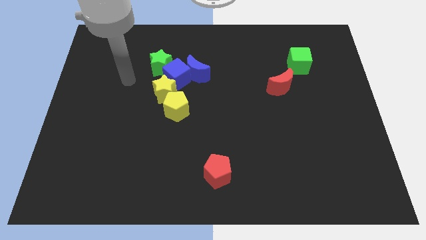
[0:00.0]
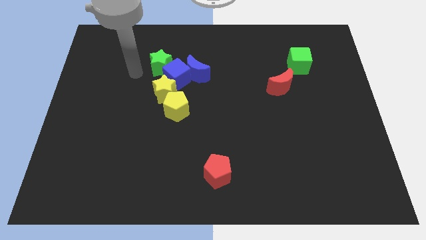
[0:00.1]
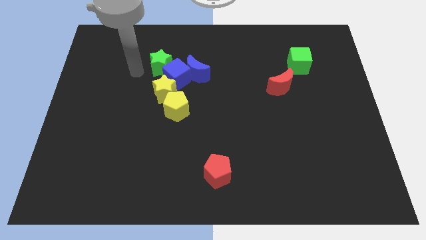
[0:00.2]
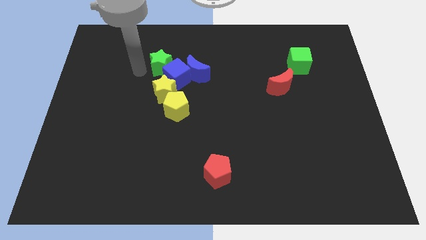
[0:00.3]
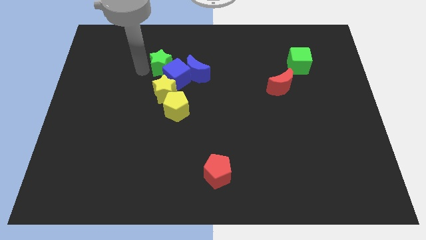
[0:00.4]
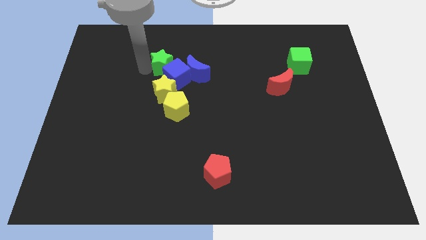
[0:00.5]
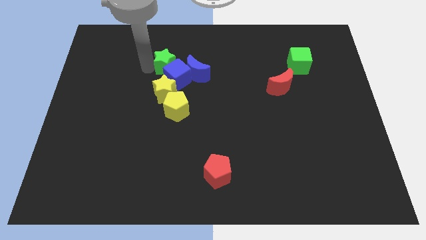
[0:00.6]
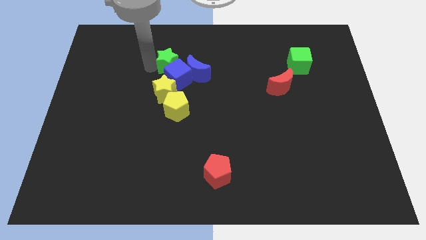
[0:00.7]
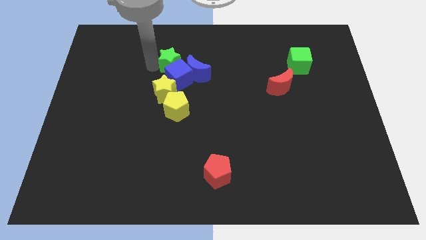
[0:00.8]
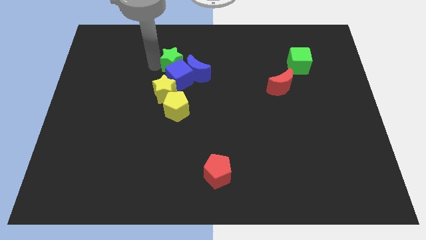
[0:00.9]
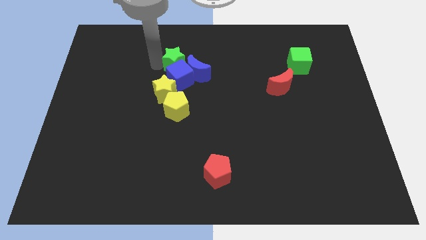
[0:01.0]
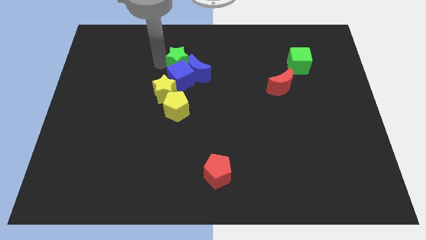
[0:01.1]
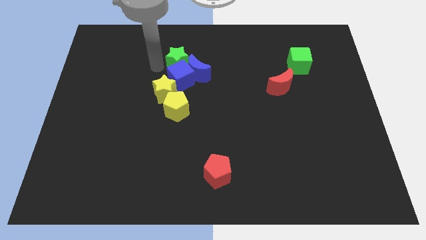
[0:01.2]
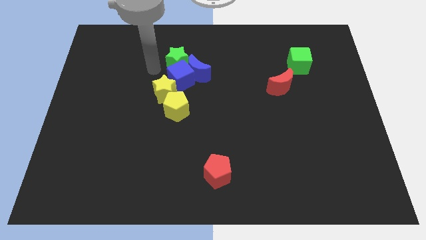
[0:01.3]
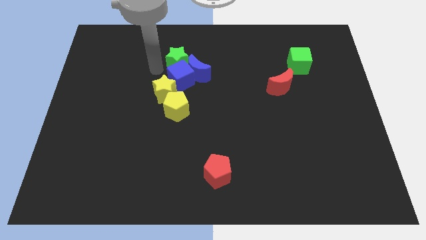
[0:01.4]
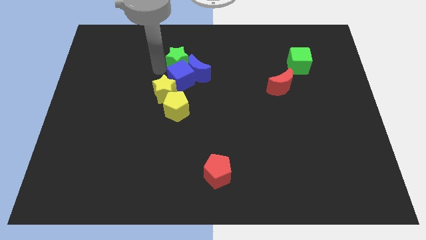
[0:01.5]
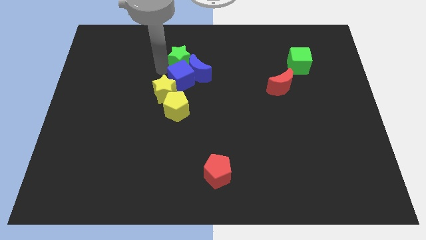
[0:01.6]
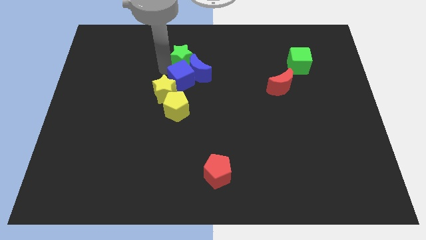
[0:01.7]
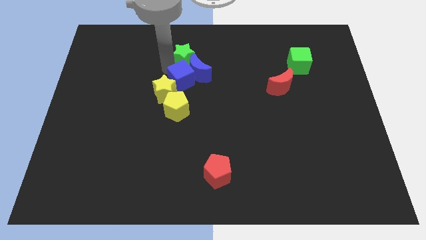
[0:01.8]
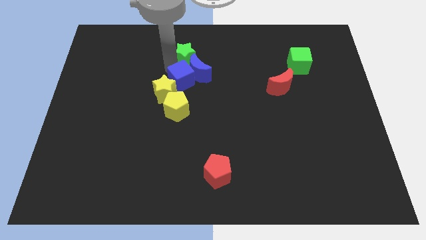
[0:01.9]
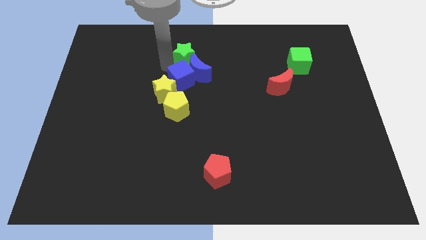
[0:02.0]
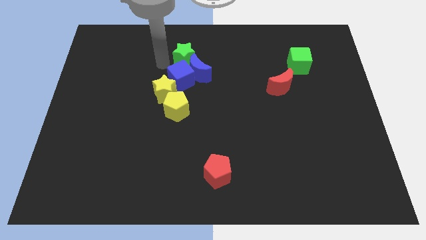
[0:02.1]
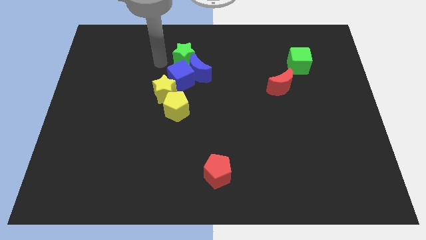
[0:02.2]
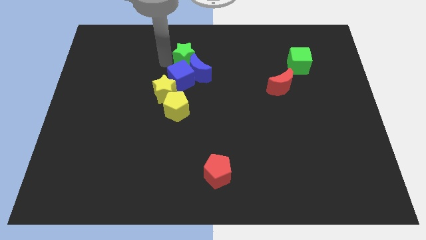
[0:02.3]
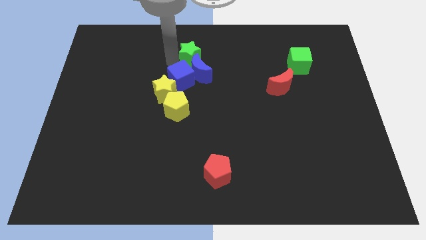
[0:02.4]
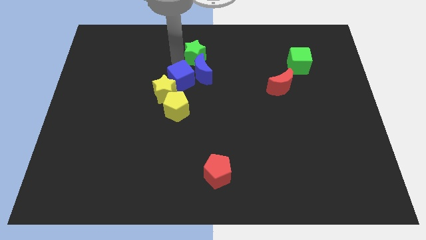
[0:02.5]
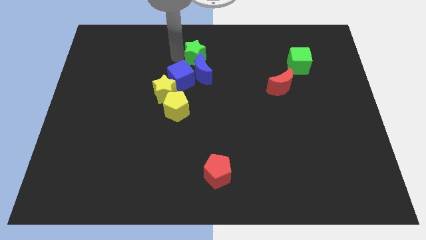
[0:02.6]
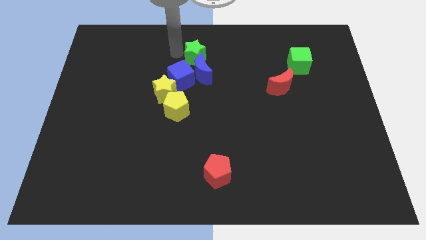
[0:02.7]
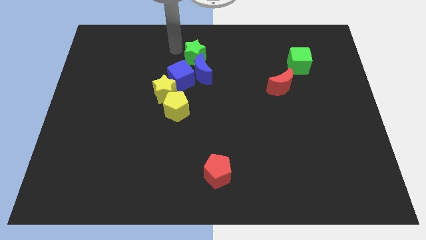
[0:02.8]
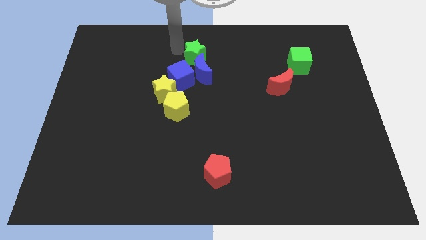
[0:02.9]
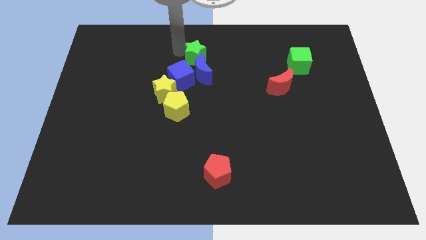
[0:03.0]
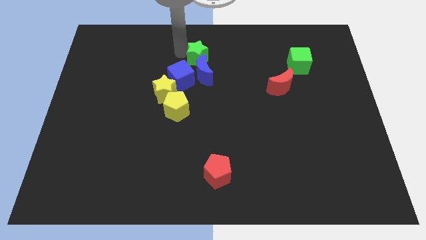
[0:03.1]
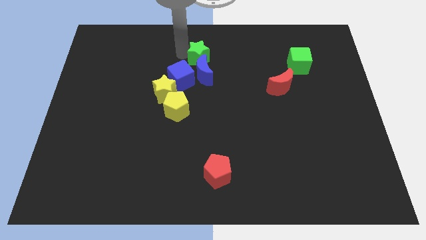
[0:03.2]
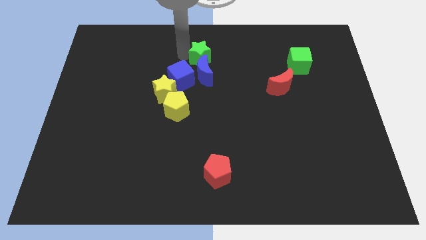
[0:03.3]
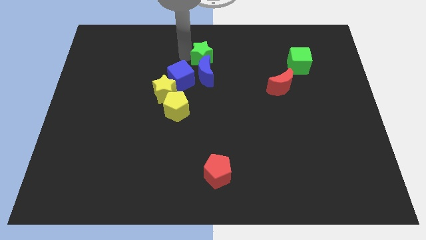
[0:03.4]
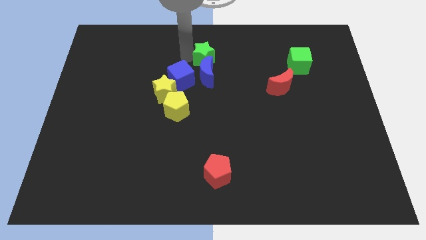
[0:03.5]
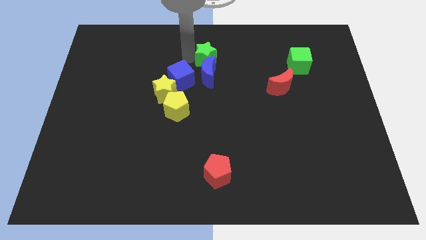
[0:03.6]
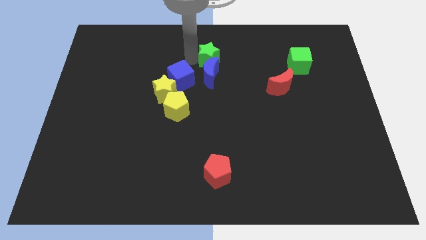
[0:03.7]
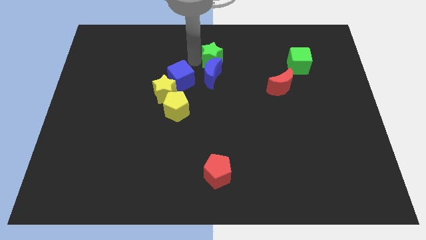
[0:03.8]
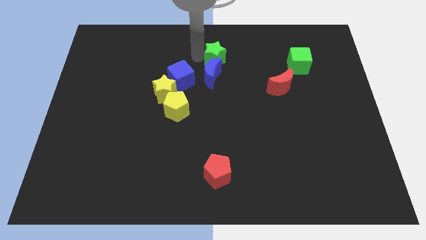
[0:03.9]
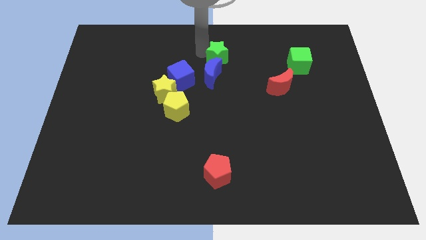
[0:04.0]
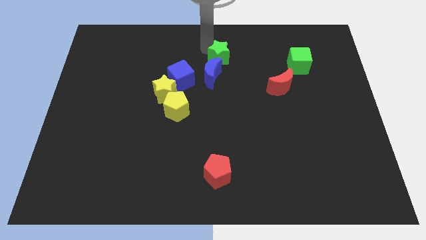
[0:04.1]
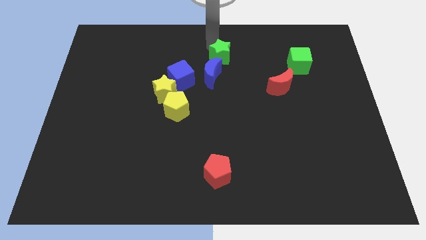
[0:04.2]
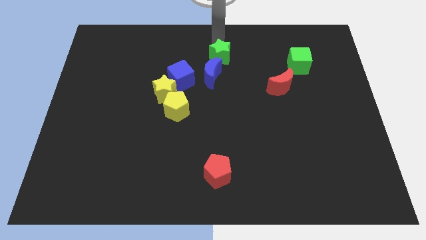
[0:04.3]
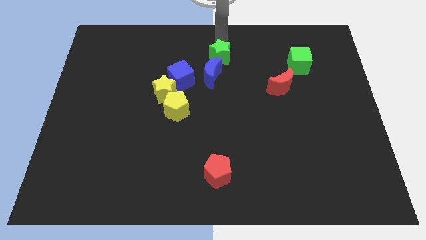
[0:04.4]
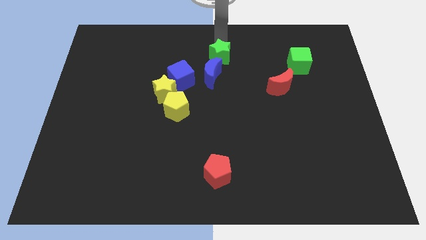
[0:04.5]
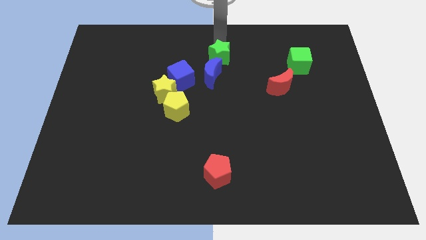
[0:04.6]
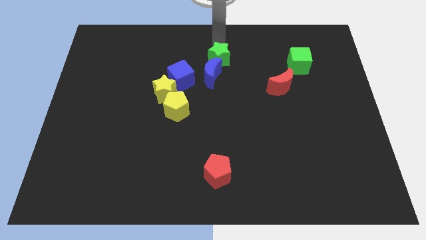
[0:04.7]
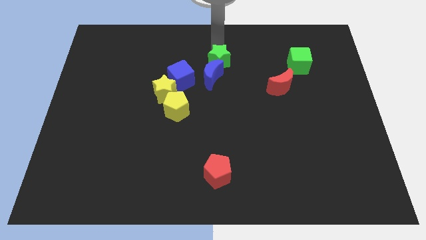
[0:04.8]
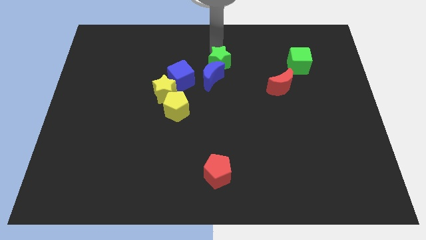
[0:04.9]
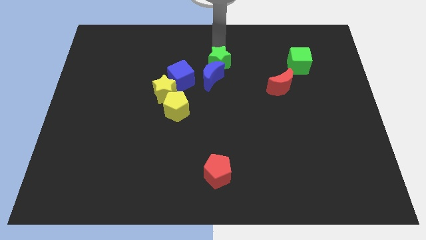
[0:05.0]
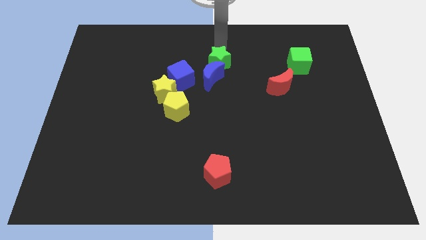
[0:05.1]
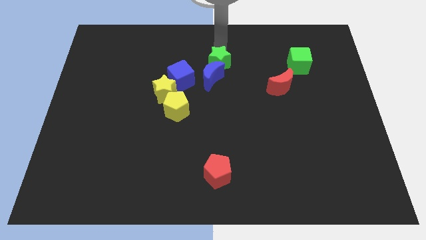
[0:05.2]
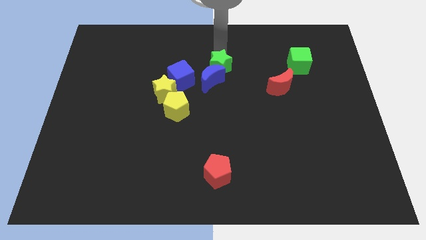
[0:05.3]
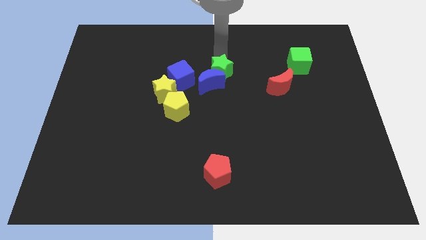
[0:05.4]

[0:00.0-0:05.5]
slide the green star down and then to the right a little

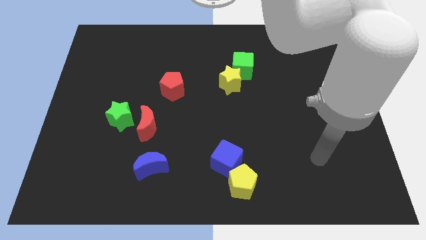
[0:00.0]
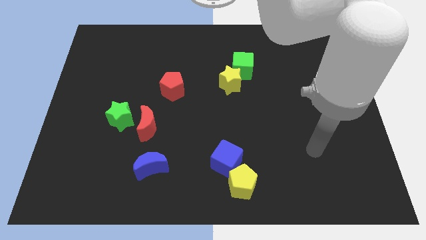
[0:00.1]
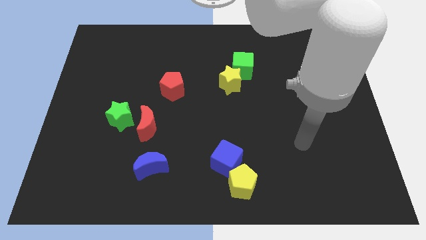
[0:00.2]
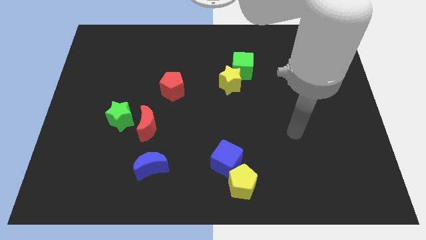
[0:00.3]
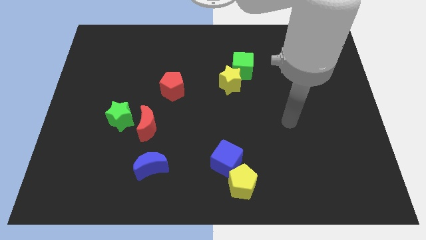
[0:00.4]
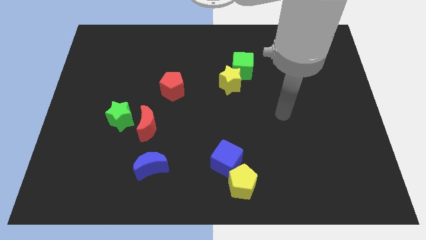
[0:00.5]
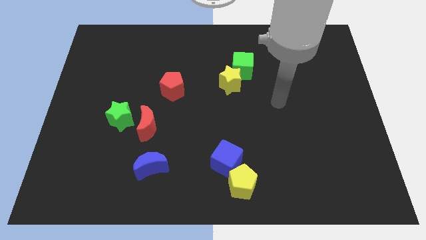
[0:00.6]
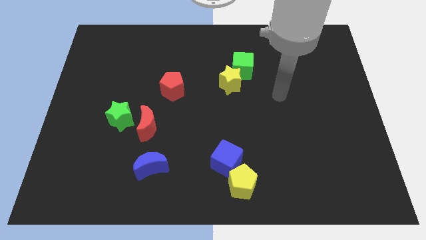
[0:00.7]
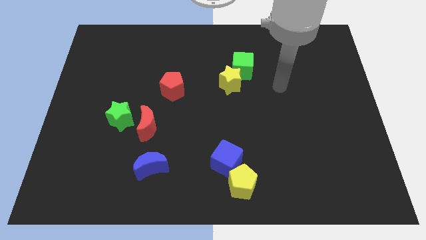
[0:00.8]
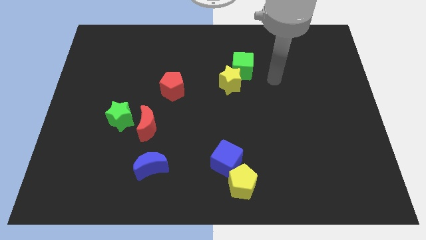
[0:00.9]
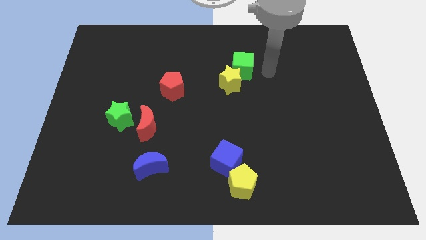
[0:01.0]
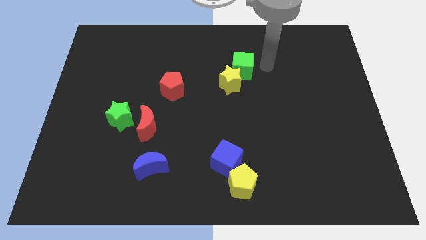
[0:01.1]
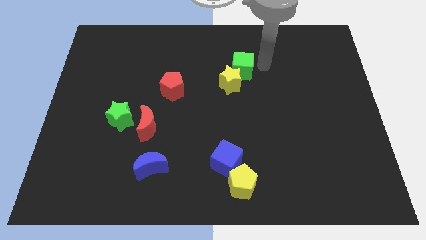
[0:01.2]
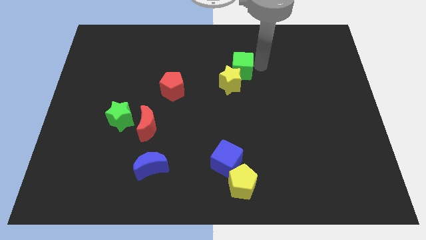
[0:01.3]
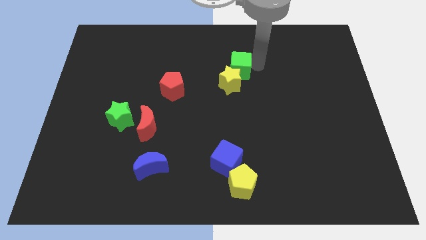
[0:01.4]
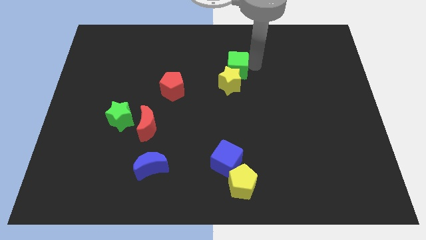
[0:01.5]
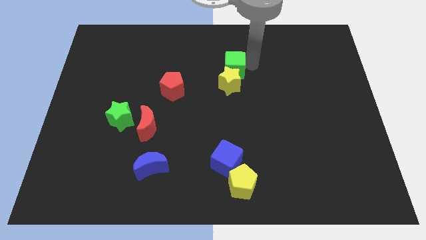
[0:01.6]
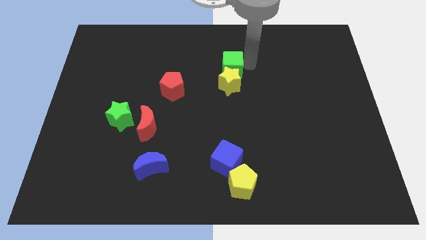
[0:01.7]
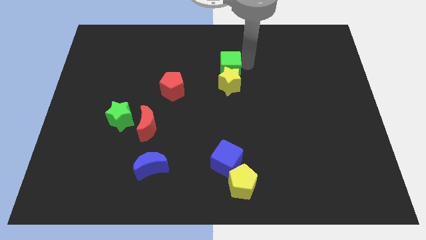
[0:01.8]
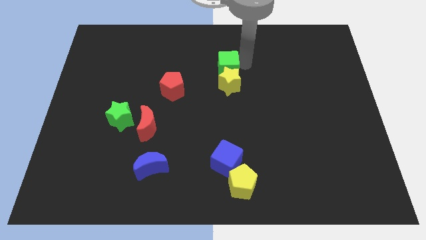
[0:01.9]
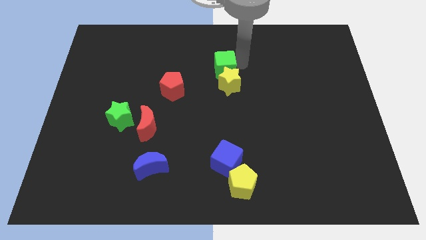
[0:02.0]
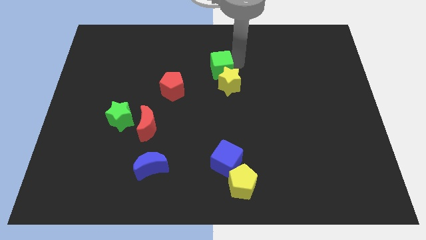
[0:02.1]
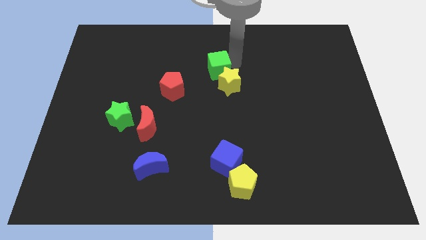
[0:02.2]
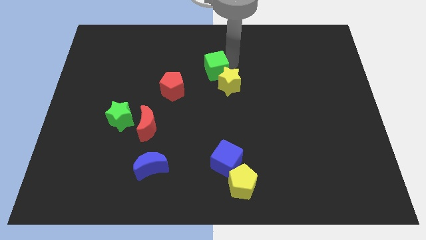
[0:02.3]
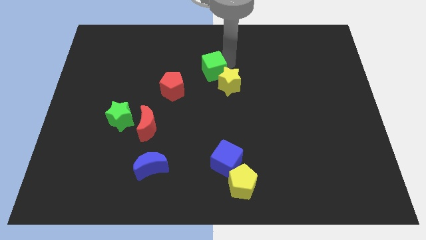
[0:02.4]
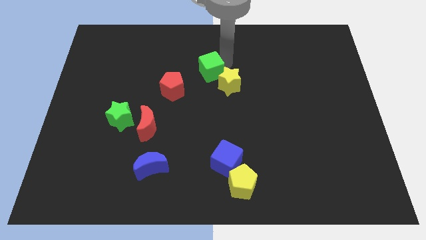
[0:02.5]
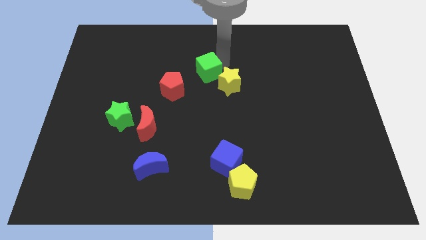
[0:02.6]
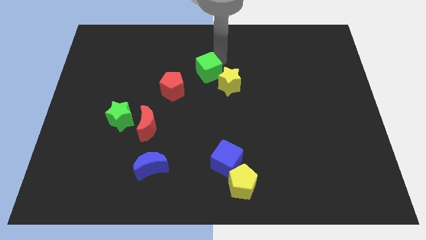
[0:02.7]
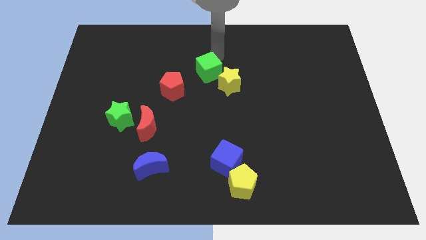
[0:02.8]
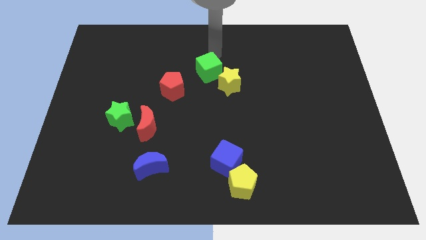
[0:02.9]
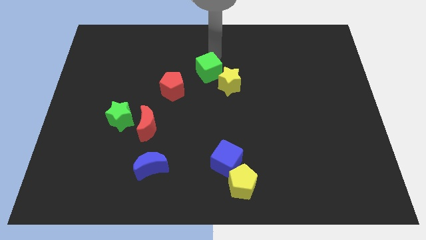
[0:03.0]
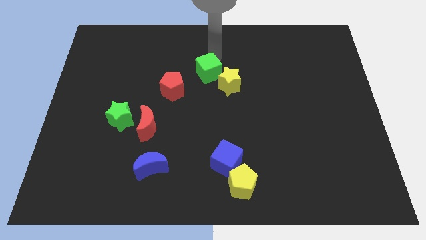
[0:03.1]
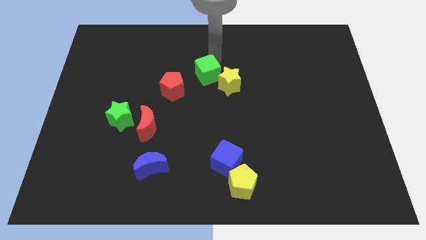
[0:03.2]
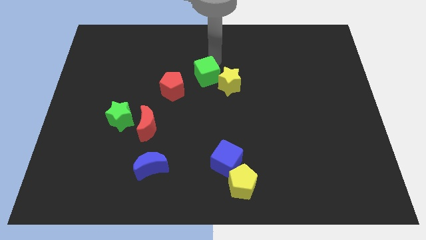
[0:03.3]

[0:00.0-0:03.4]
slightly slide the green cube diagonally down and left
